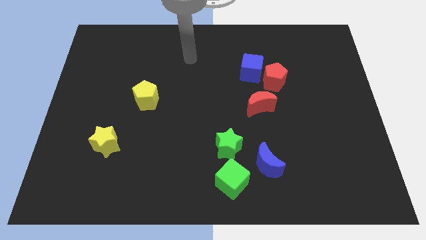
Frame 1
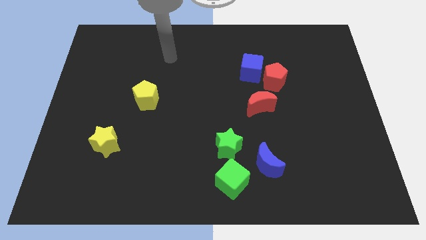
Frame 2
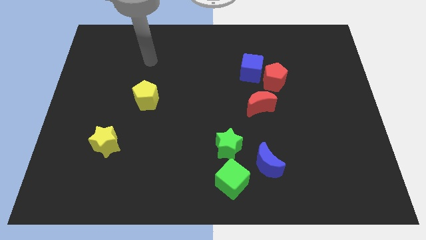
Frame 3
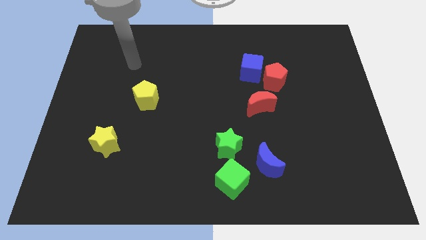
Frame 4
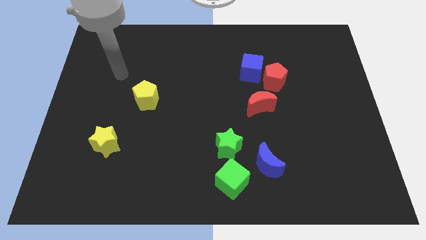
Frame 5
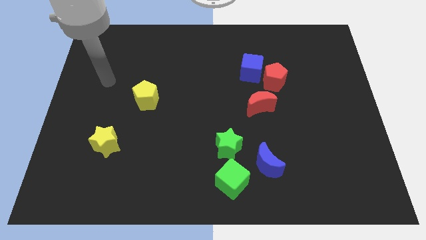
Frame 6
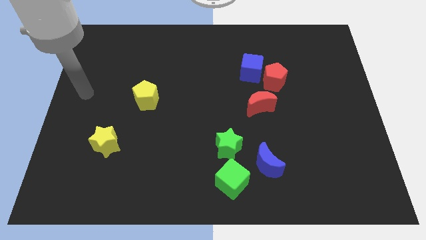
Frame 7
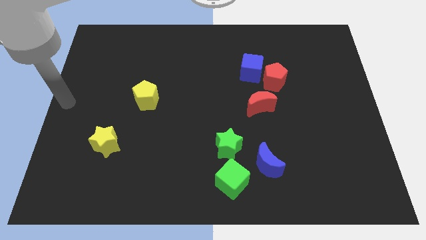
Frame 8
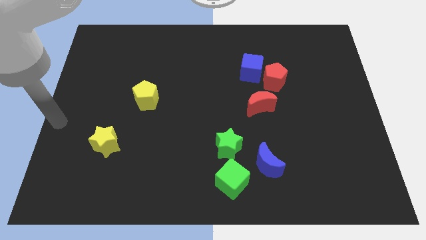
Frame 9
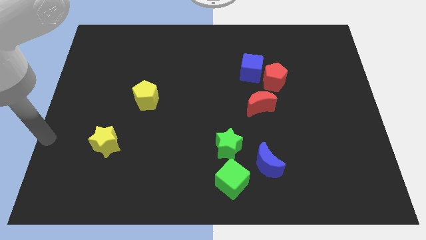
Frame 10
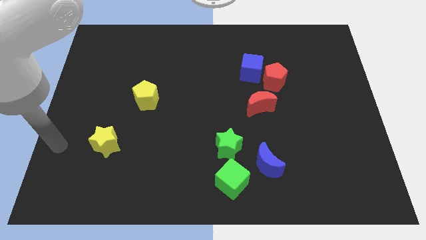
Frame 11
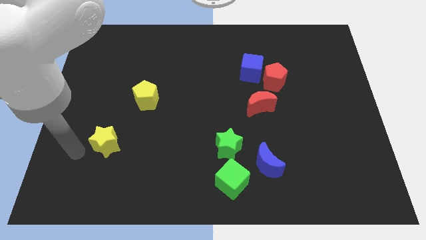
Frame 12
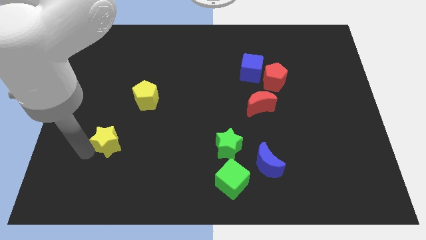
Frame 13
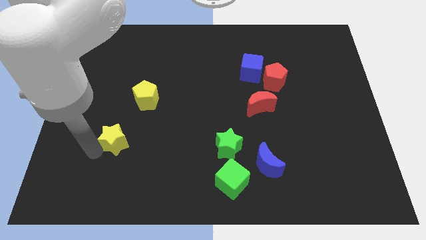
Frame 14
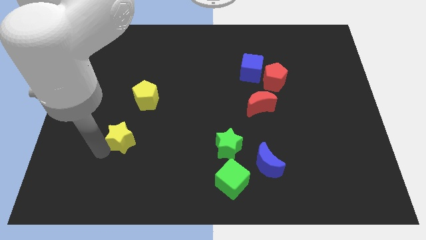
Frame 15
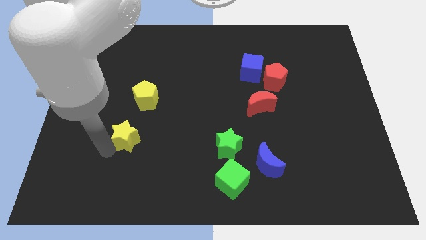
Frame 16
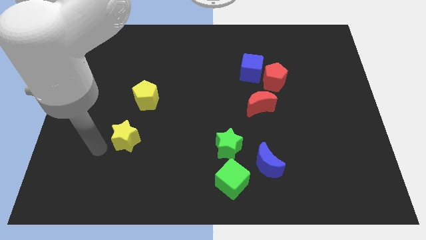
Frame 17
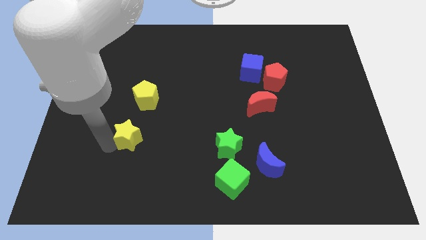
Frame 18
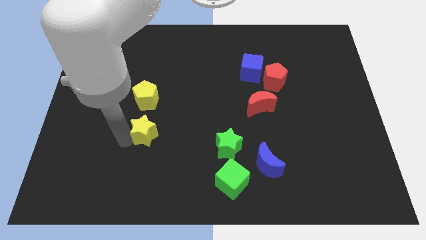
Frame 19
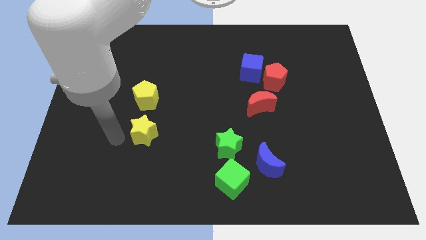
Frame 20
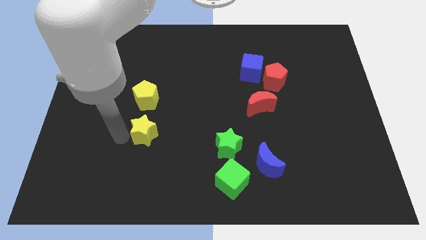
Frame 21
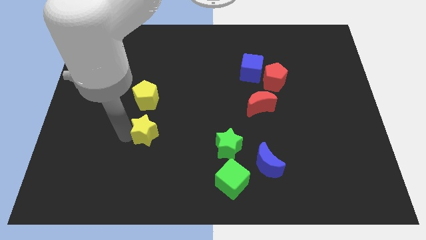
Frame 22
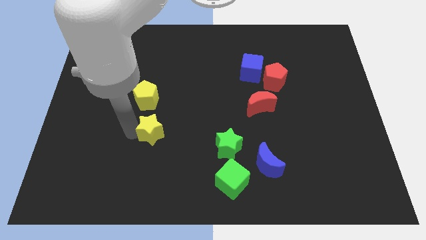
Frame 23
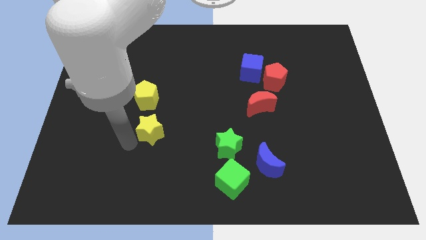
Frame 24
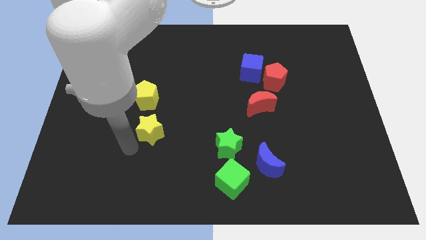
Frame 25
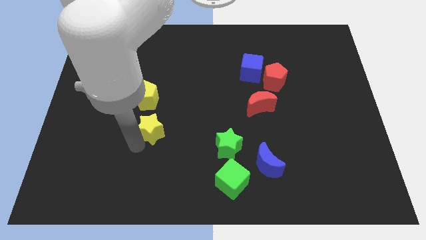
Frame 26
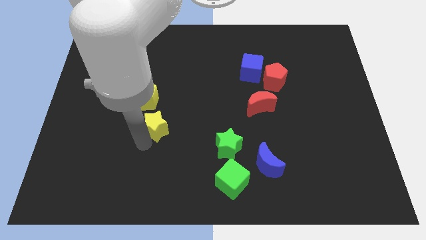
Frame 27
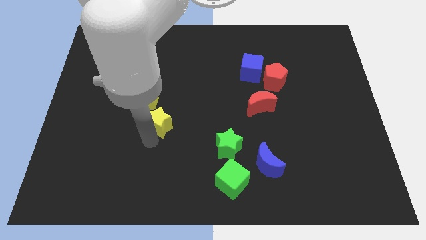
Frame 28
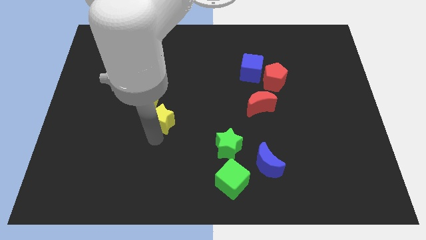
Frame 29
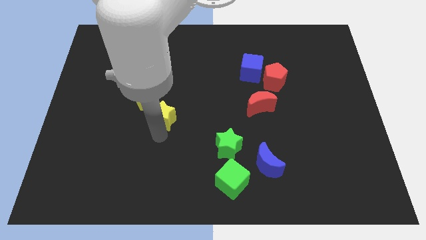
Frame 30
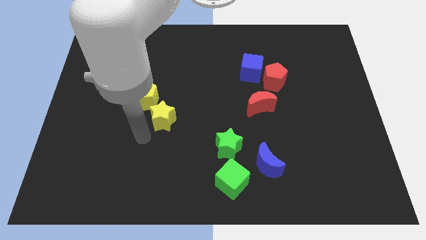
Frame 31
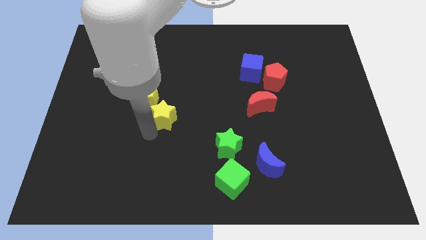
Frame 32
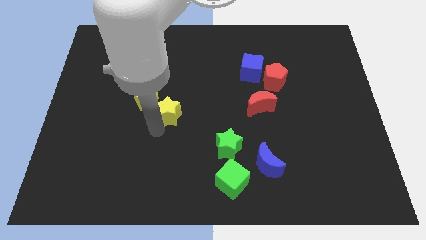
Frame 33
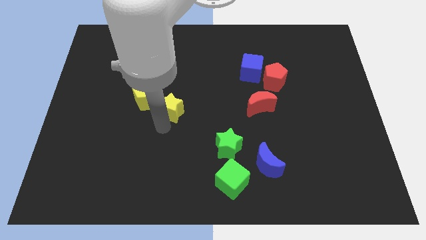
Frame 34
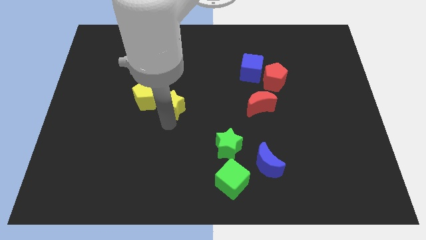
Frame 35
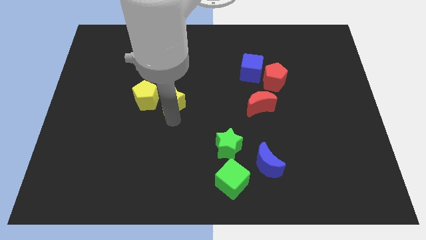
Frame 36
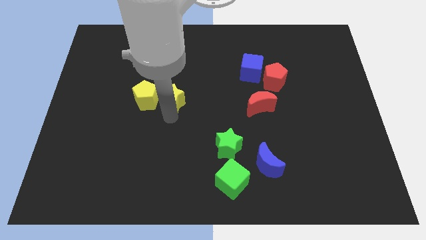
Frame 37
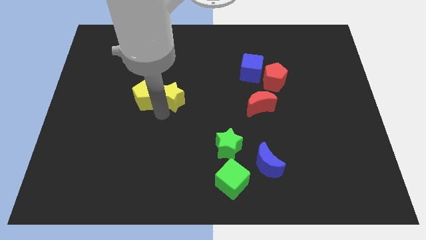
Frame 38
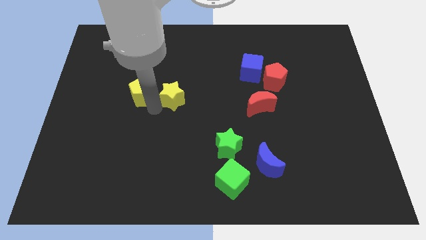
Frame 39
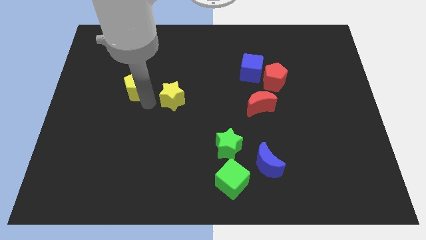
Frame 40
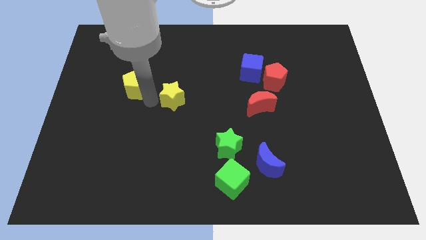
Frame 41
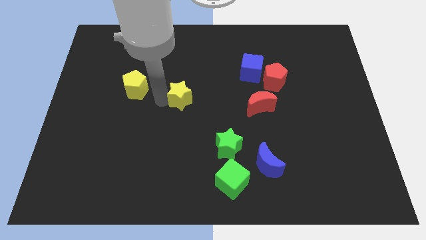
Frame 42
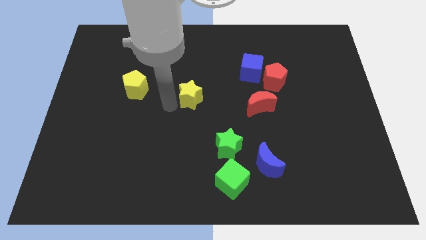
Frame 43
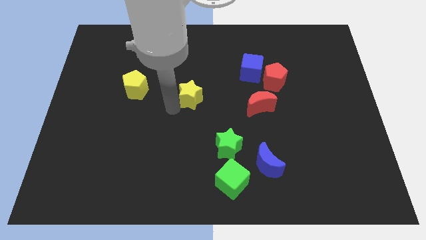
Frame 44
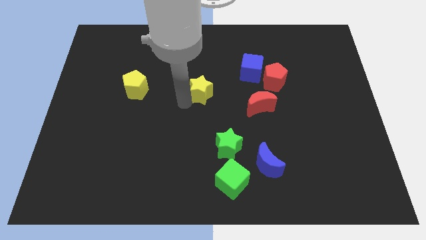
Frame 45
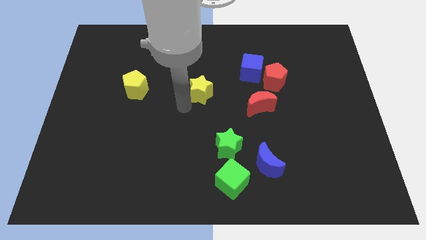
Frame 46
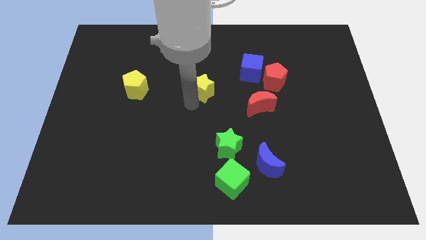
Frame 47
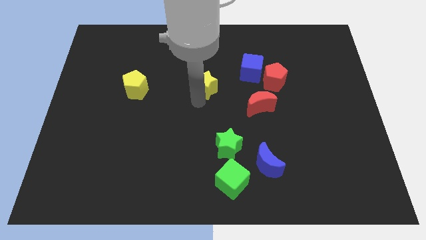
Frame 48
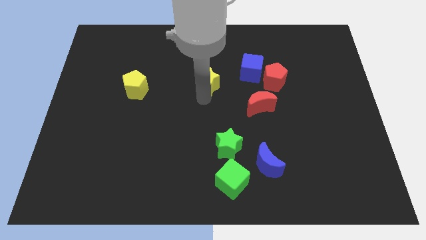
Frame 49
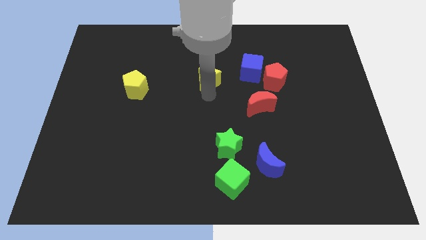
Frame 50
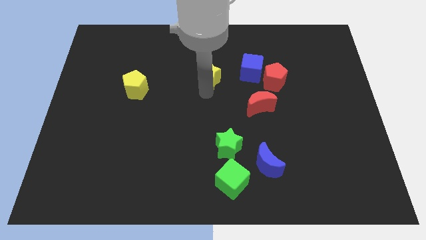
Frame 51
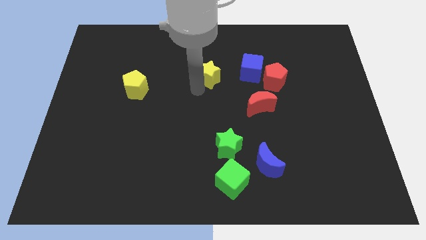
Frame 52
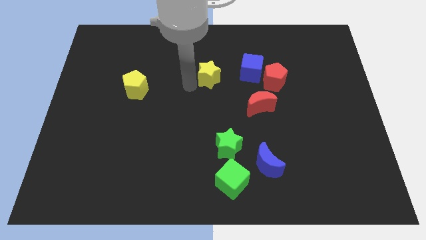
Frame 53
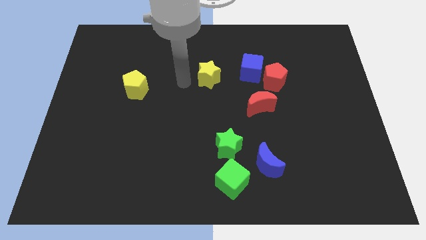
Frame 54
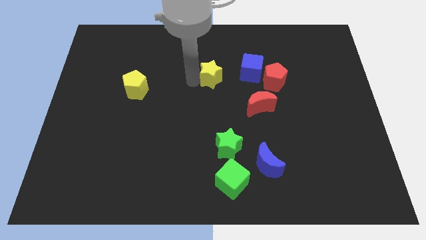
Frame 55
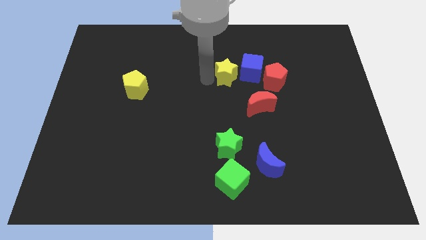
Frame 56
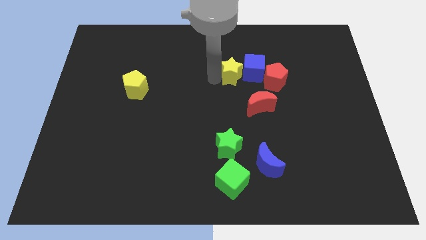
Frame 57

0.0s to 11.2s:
push the yellow star next to the blue cube

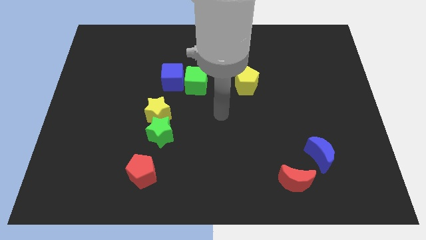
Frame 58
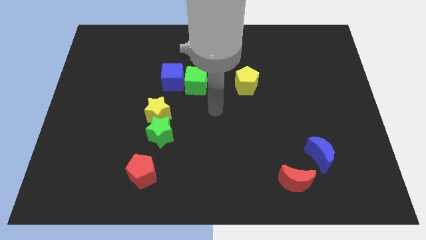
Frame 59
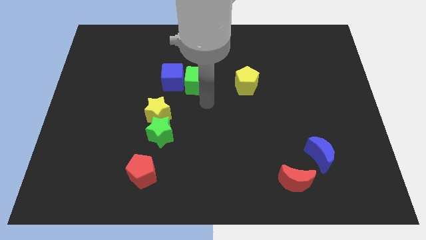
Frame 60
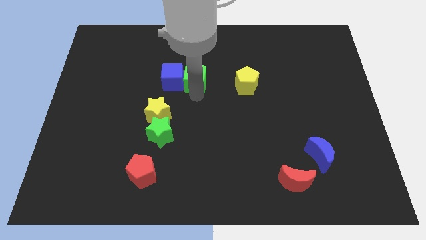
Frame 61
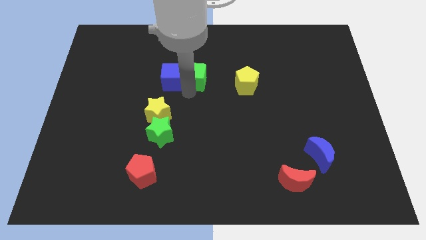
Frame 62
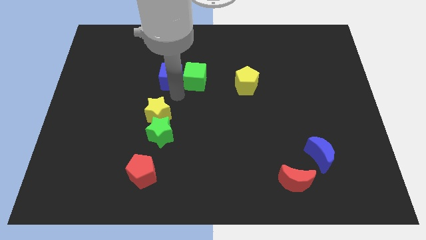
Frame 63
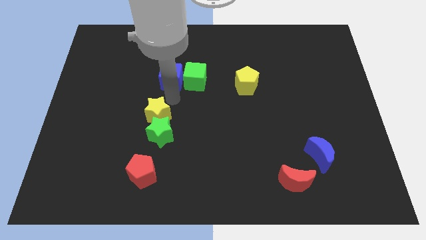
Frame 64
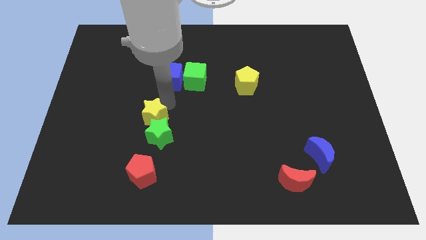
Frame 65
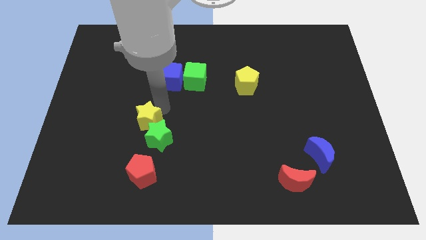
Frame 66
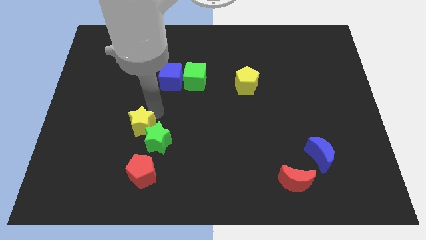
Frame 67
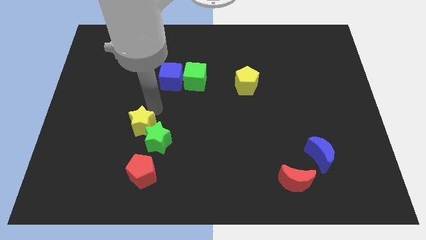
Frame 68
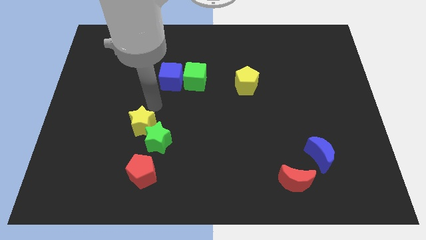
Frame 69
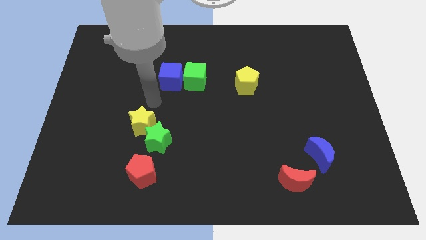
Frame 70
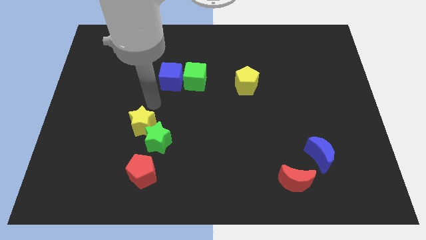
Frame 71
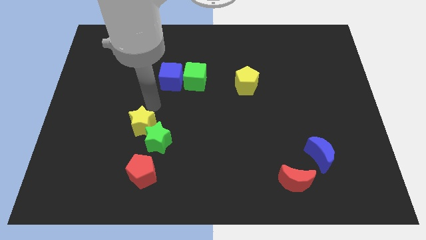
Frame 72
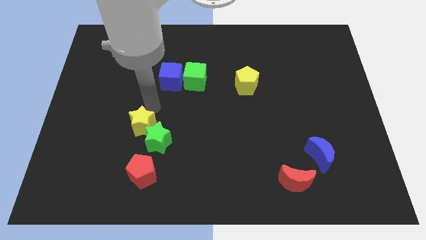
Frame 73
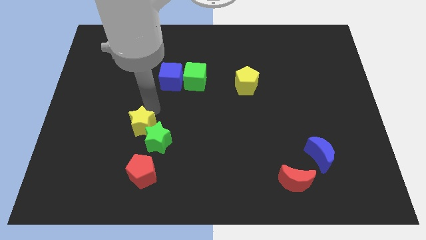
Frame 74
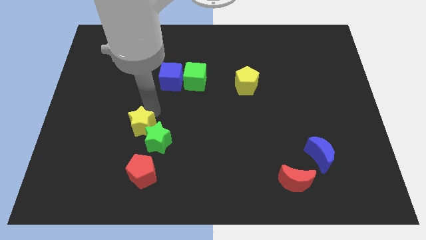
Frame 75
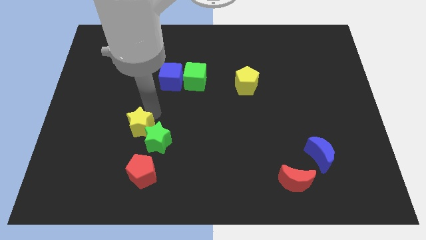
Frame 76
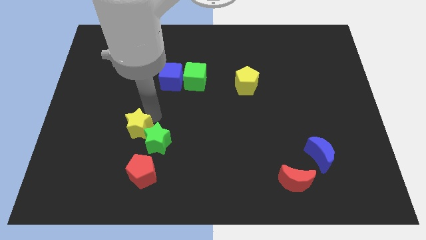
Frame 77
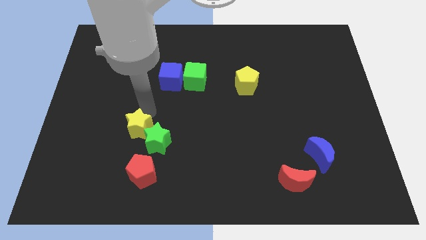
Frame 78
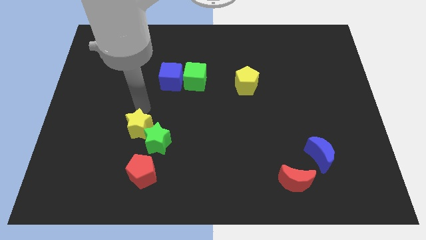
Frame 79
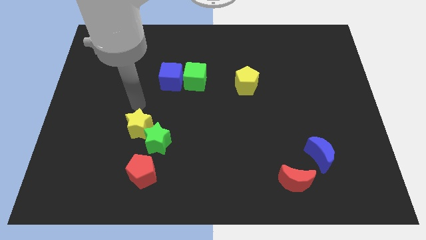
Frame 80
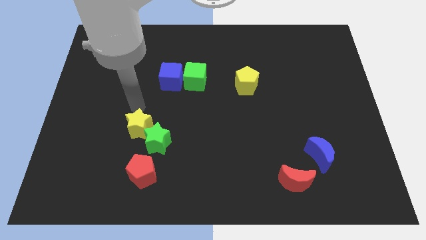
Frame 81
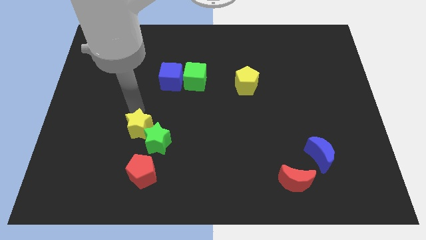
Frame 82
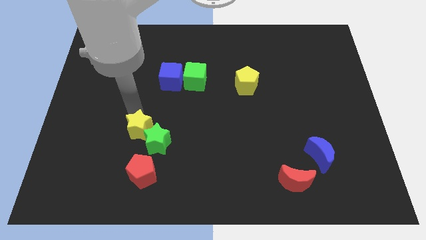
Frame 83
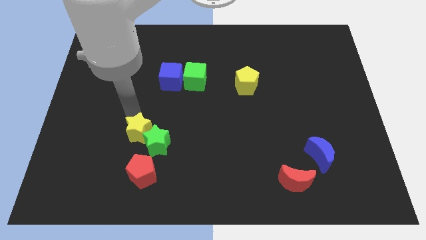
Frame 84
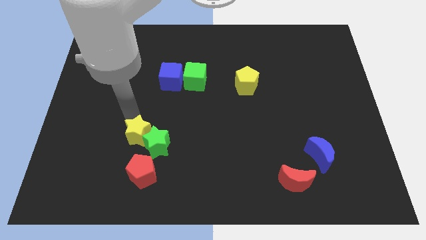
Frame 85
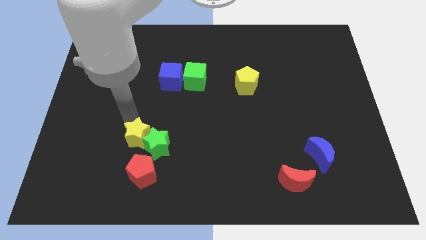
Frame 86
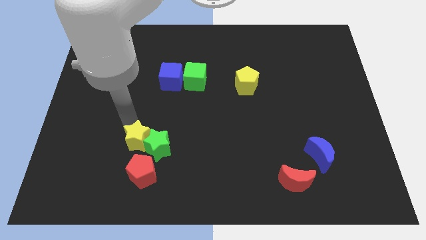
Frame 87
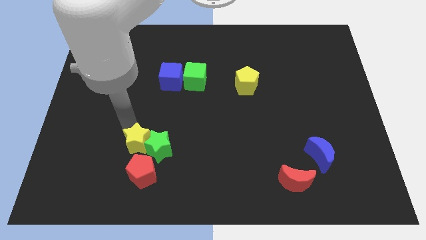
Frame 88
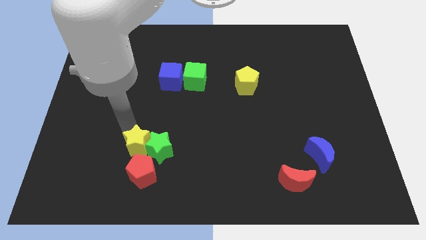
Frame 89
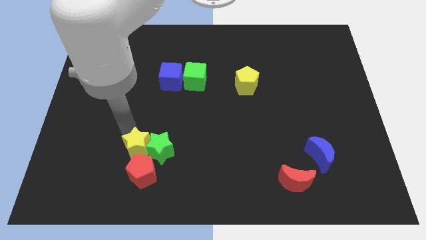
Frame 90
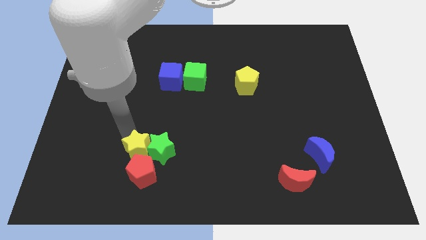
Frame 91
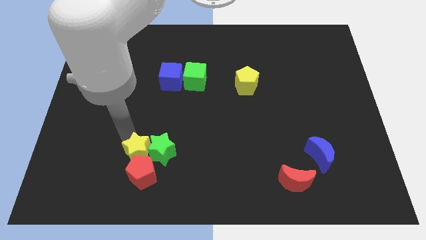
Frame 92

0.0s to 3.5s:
move the yellow star close to the red pentagon
